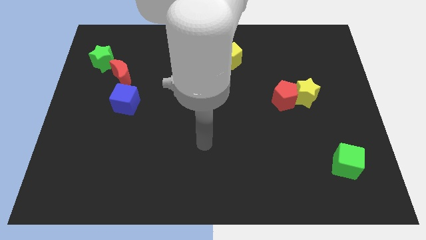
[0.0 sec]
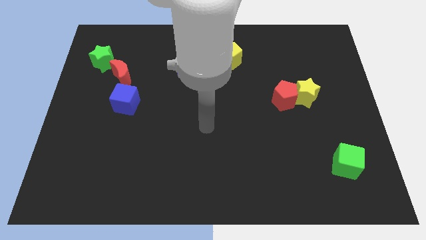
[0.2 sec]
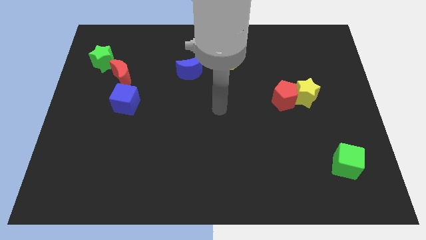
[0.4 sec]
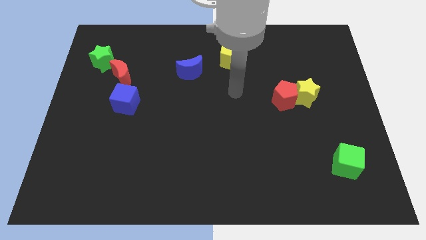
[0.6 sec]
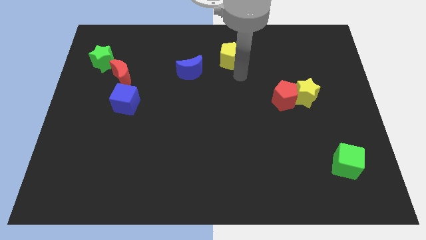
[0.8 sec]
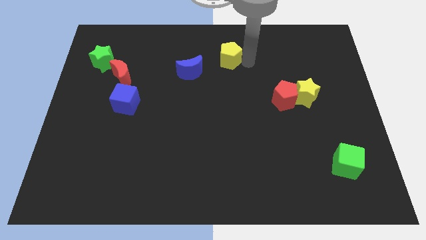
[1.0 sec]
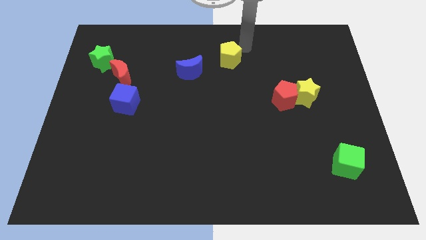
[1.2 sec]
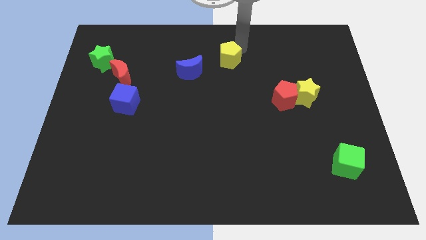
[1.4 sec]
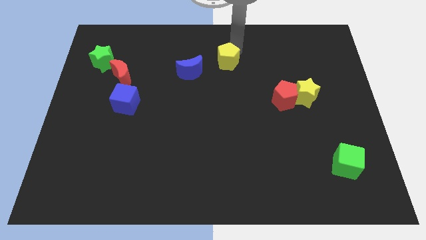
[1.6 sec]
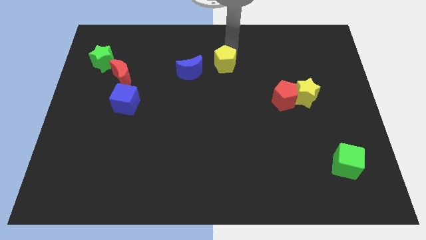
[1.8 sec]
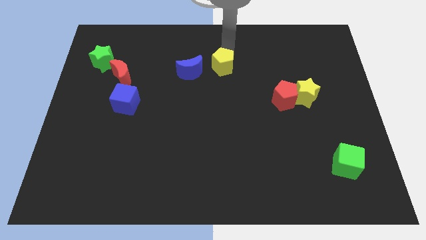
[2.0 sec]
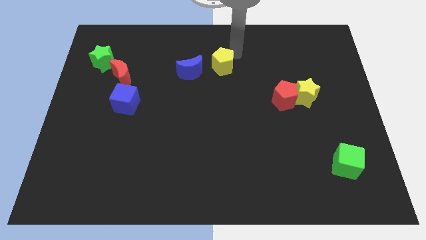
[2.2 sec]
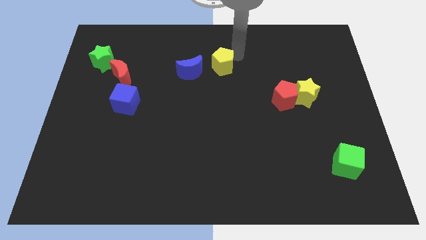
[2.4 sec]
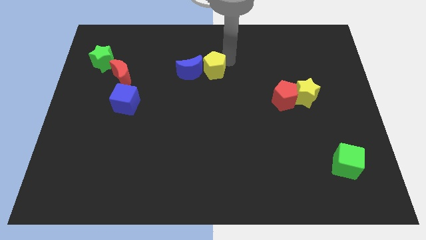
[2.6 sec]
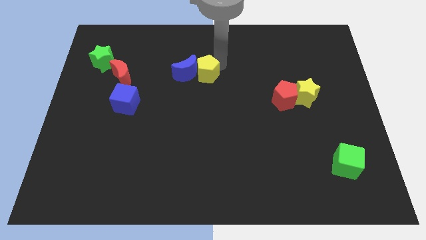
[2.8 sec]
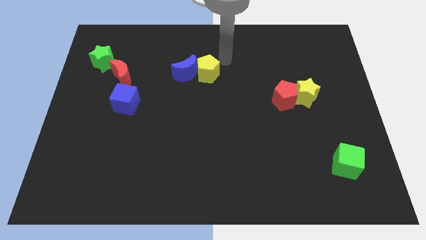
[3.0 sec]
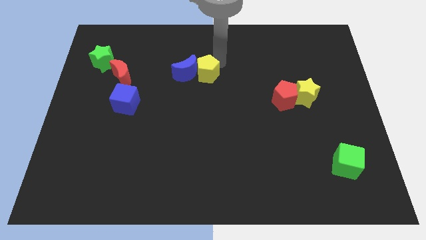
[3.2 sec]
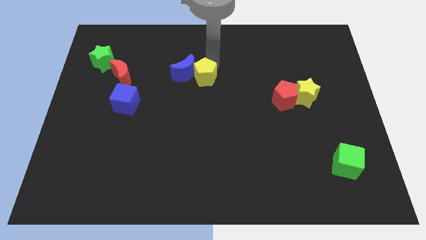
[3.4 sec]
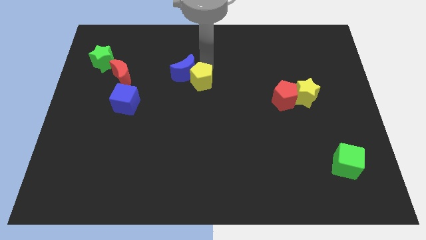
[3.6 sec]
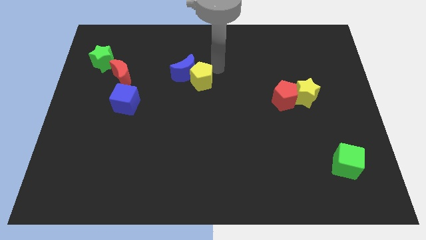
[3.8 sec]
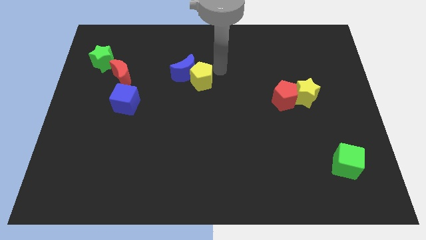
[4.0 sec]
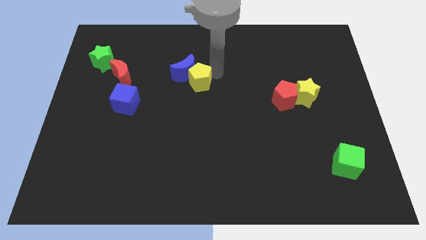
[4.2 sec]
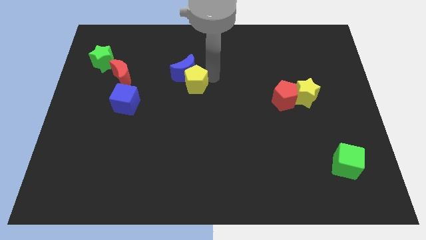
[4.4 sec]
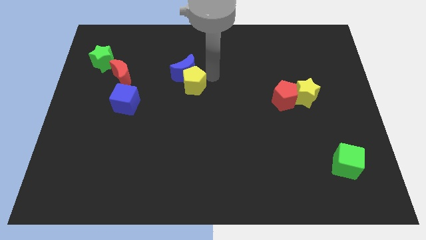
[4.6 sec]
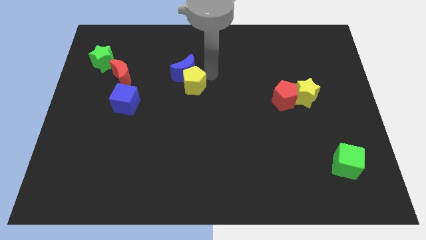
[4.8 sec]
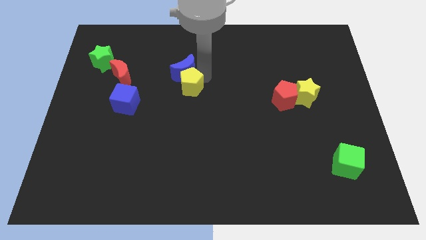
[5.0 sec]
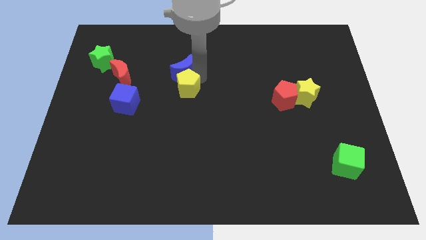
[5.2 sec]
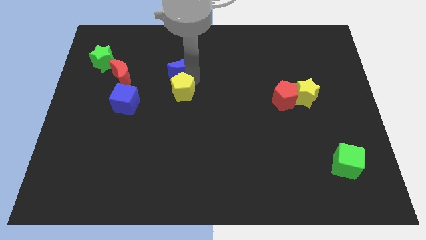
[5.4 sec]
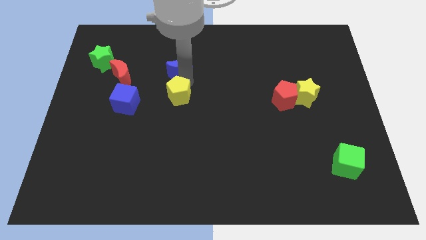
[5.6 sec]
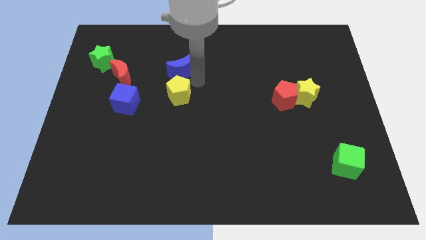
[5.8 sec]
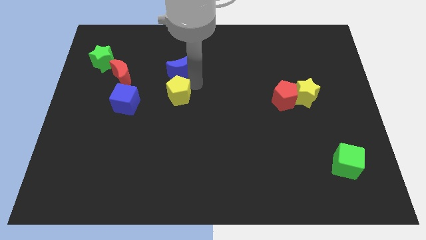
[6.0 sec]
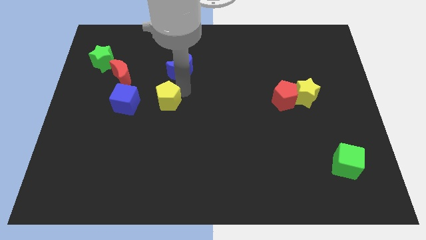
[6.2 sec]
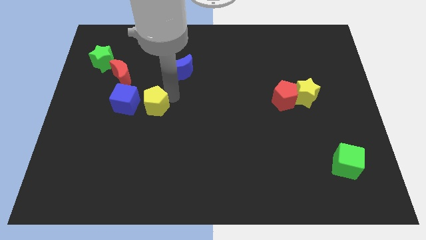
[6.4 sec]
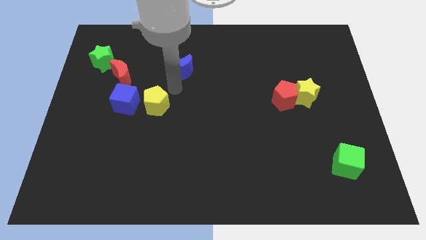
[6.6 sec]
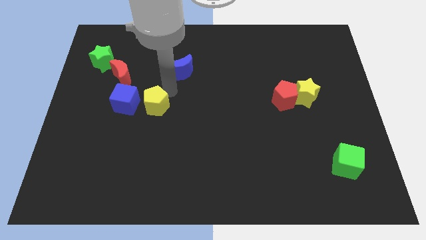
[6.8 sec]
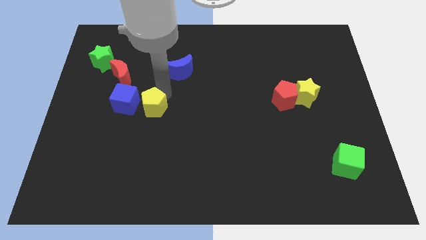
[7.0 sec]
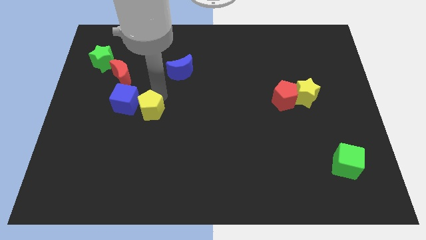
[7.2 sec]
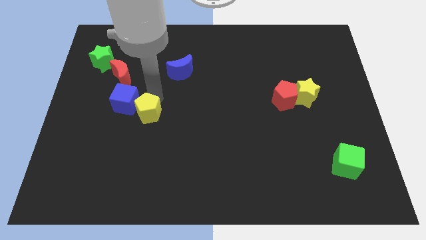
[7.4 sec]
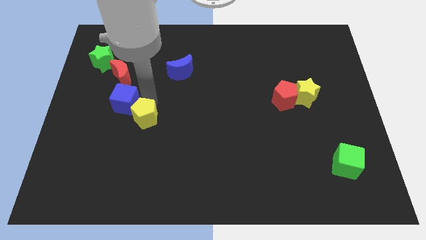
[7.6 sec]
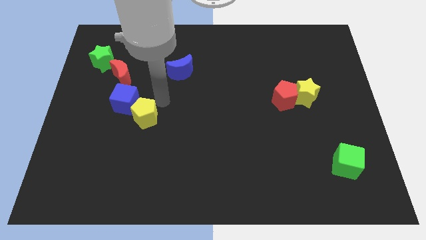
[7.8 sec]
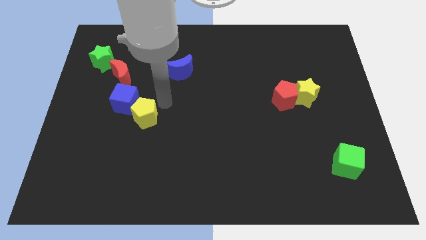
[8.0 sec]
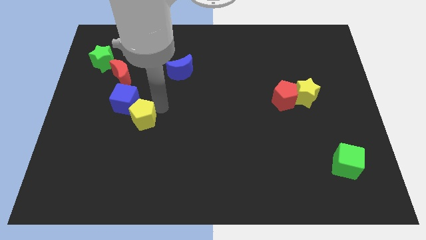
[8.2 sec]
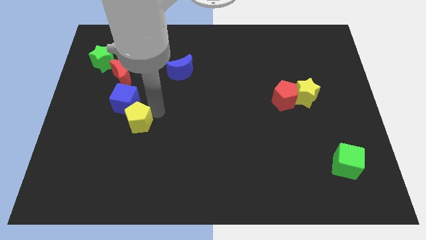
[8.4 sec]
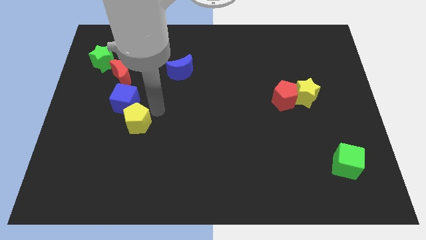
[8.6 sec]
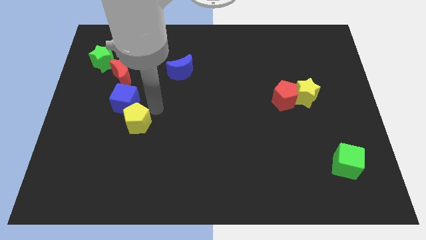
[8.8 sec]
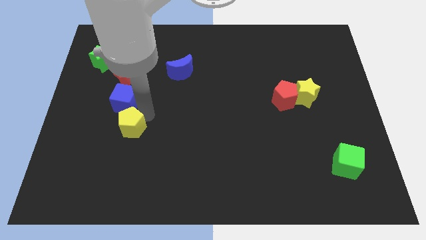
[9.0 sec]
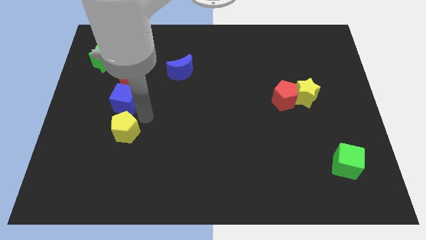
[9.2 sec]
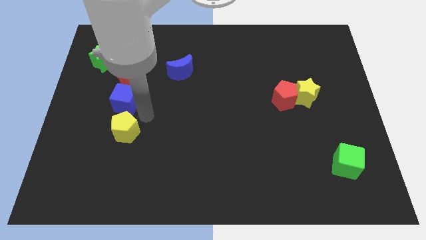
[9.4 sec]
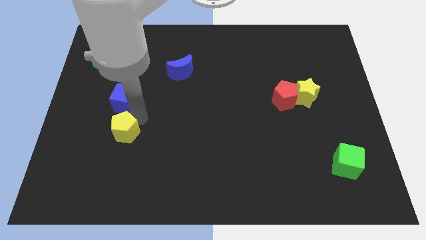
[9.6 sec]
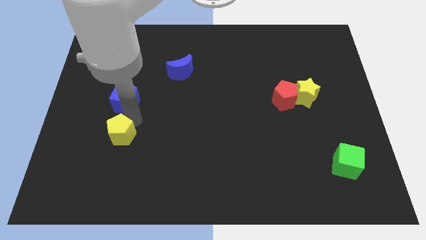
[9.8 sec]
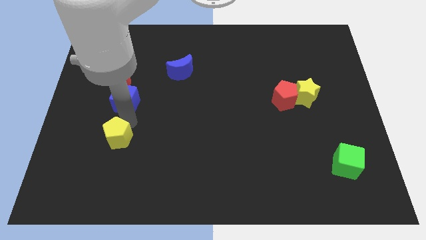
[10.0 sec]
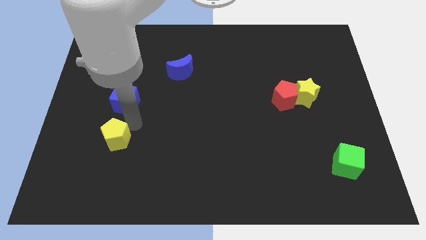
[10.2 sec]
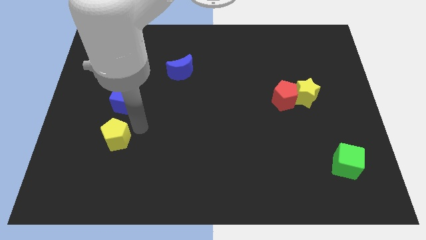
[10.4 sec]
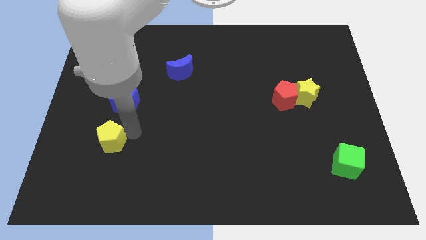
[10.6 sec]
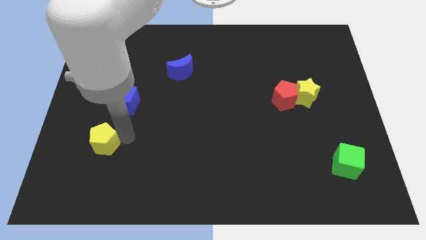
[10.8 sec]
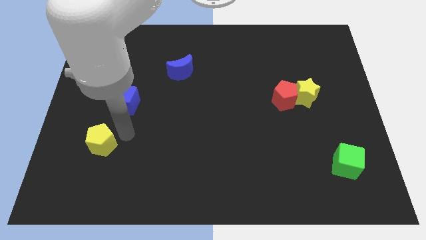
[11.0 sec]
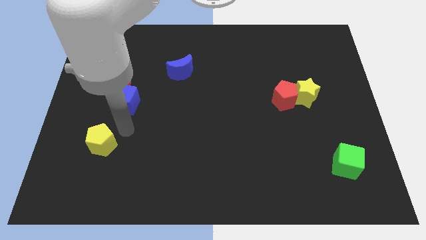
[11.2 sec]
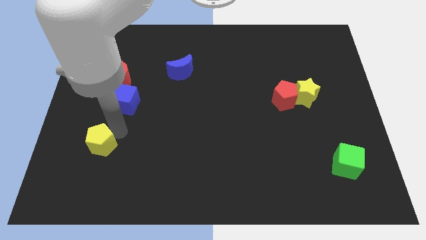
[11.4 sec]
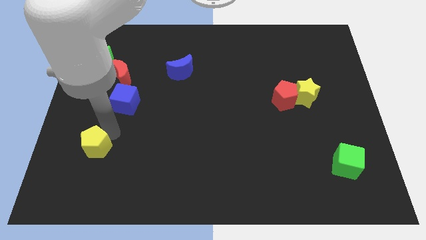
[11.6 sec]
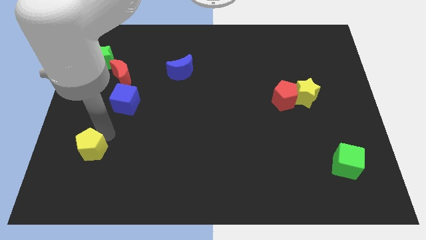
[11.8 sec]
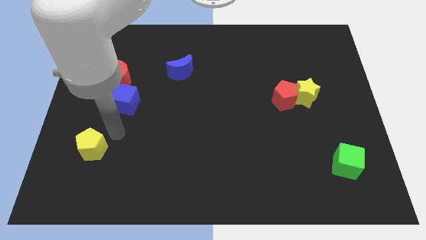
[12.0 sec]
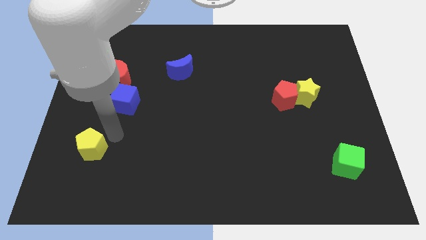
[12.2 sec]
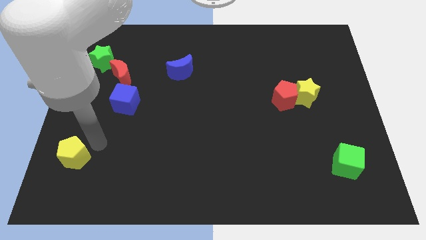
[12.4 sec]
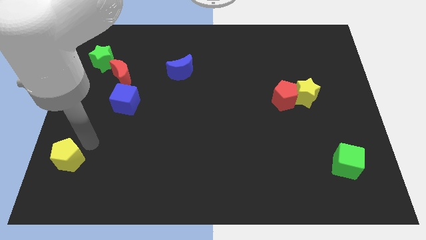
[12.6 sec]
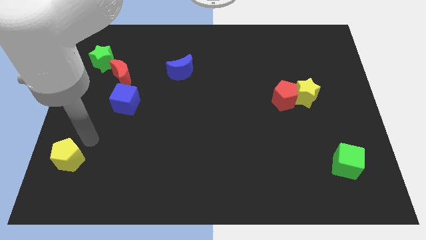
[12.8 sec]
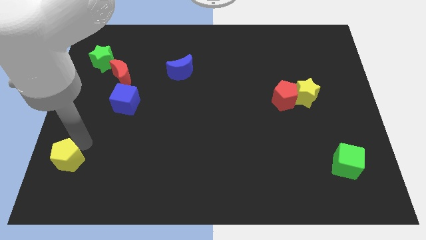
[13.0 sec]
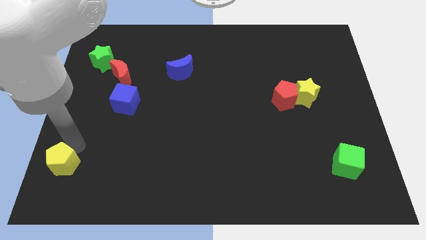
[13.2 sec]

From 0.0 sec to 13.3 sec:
slide the yellow pentagon to the bottom left
